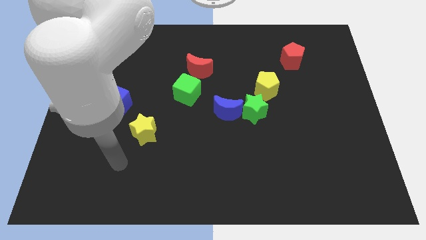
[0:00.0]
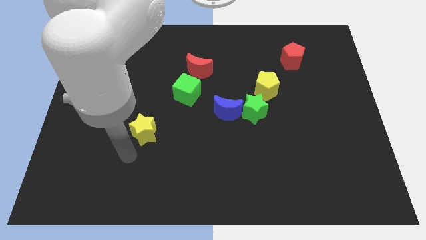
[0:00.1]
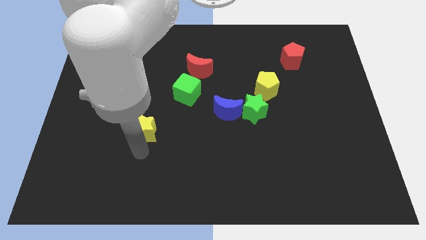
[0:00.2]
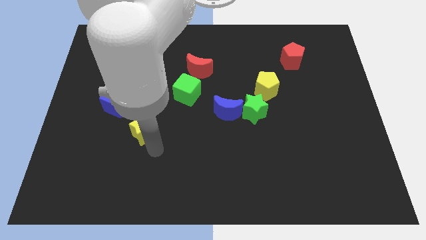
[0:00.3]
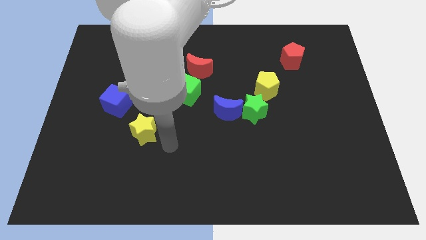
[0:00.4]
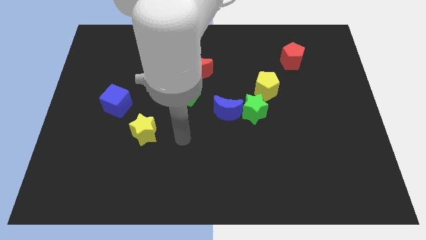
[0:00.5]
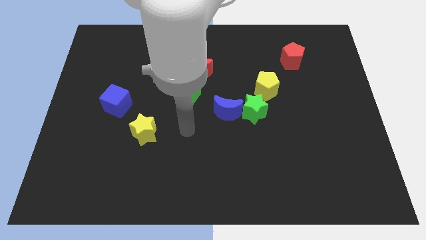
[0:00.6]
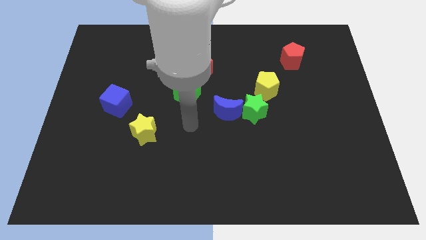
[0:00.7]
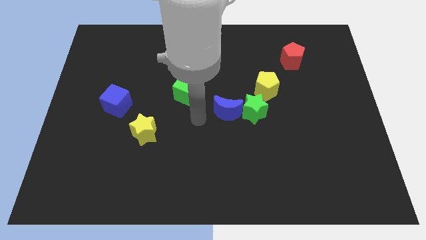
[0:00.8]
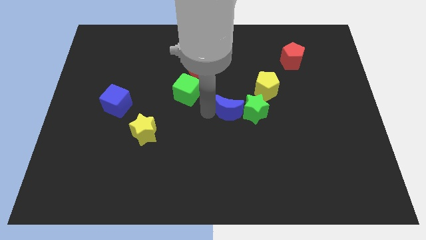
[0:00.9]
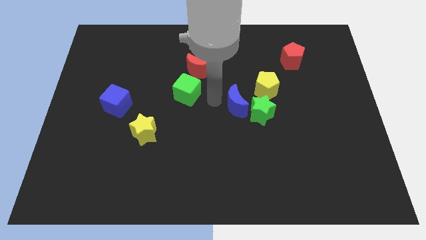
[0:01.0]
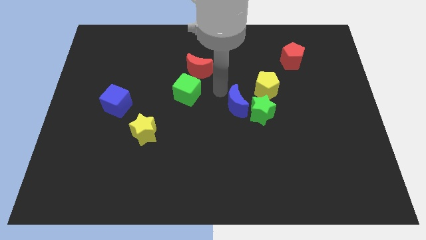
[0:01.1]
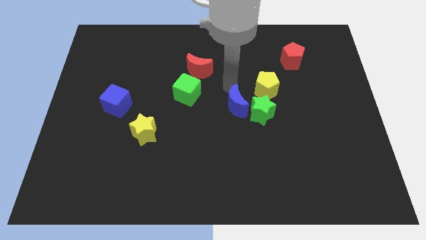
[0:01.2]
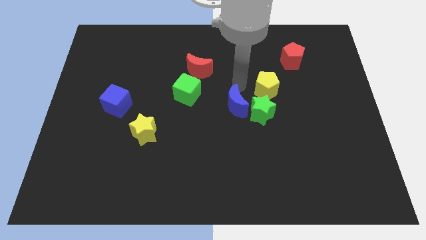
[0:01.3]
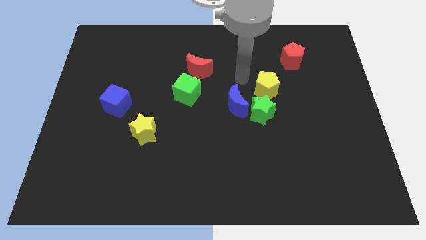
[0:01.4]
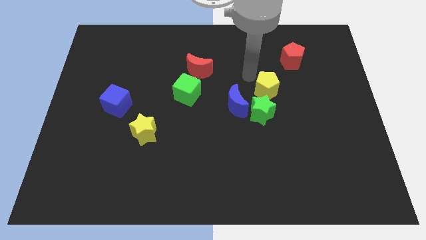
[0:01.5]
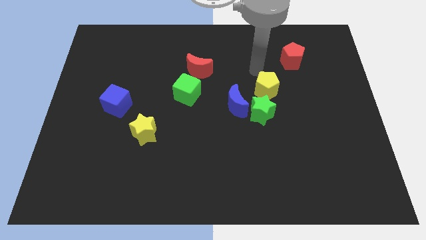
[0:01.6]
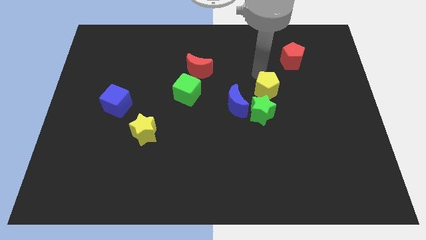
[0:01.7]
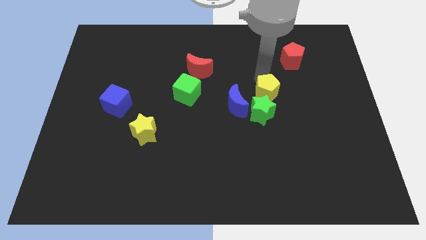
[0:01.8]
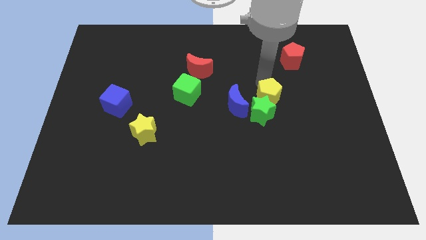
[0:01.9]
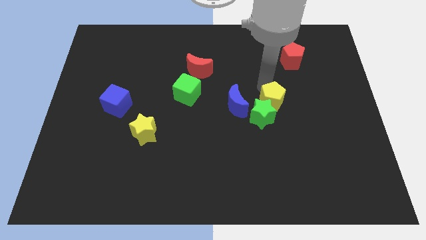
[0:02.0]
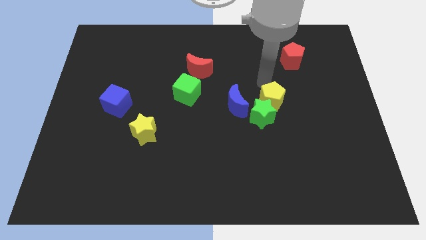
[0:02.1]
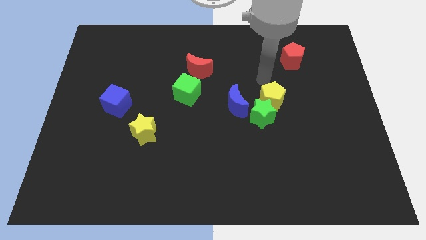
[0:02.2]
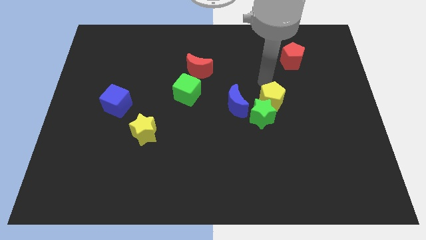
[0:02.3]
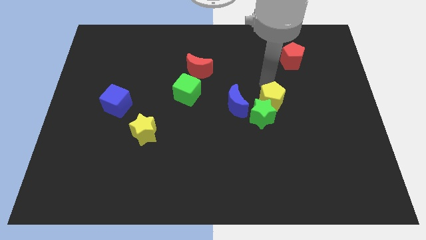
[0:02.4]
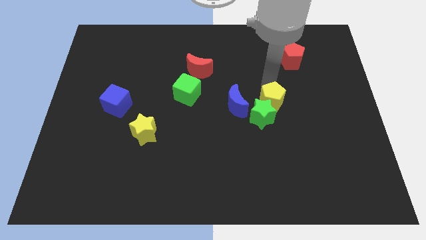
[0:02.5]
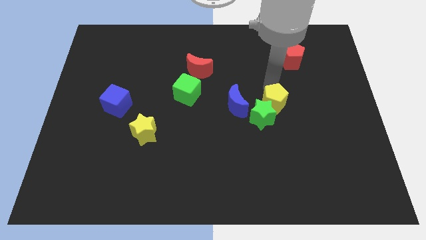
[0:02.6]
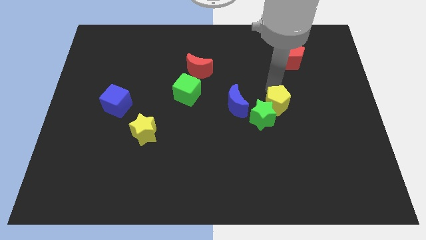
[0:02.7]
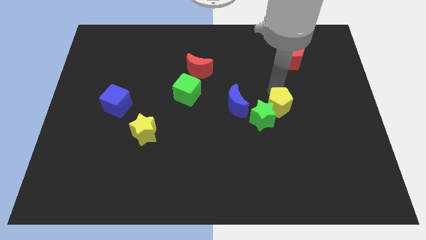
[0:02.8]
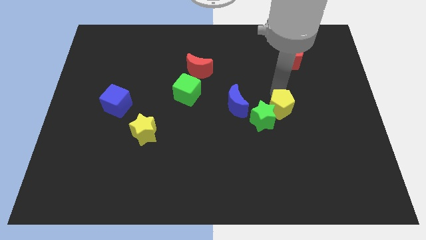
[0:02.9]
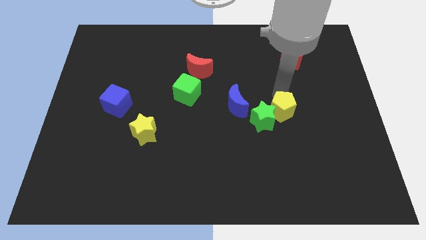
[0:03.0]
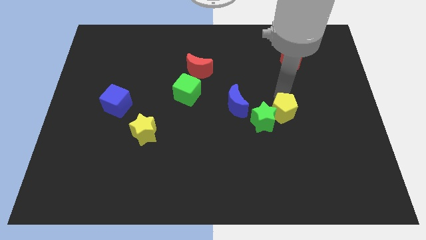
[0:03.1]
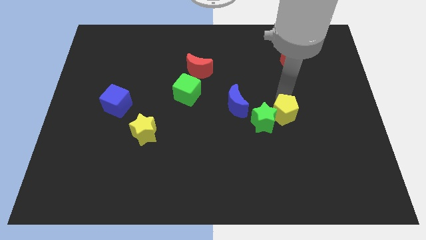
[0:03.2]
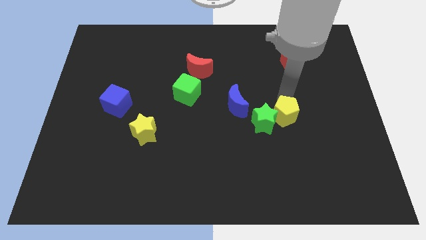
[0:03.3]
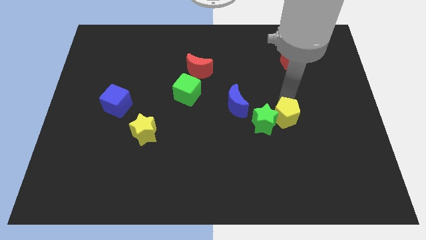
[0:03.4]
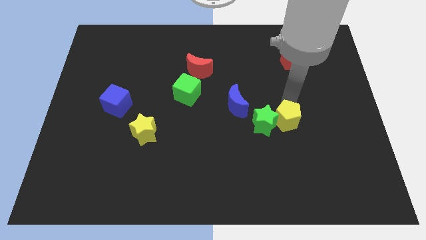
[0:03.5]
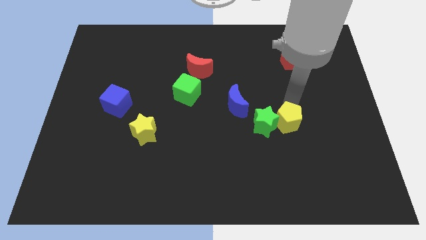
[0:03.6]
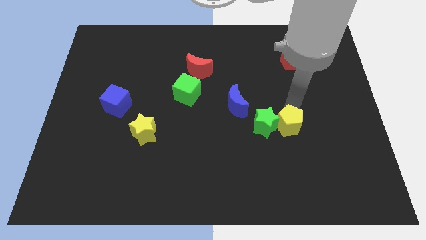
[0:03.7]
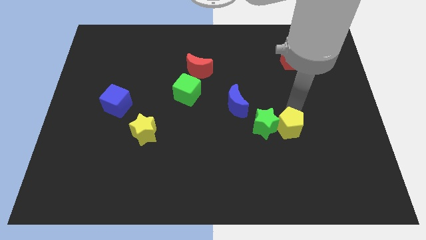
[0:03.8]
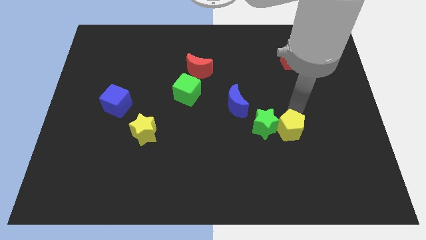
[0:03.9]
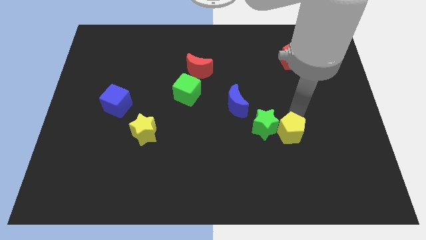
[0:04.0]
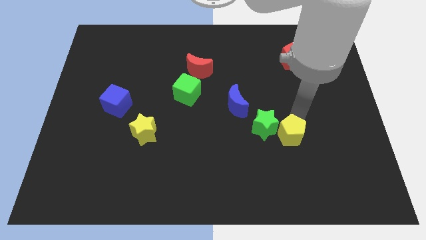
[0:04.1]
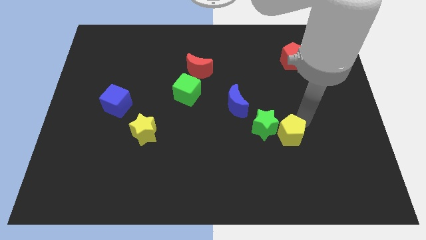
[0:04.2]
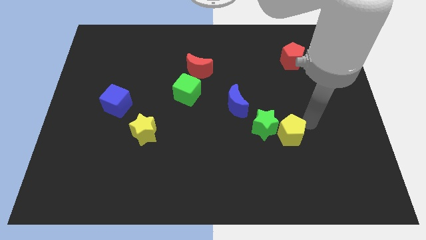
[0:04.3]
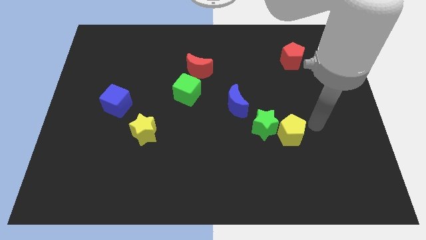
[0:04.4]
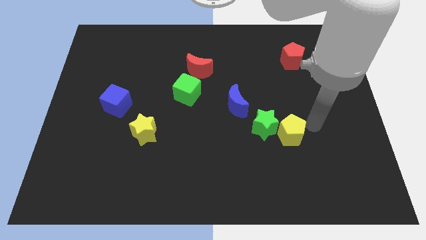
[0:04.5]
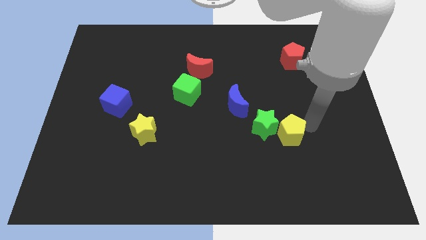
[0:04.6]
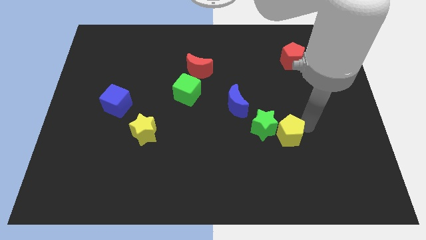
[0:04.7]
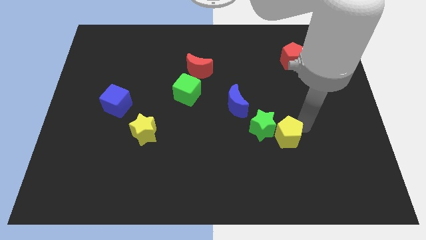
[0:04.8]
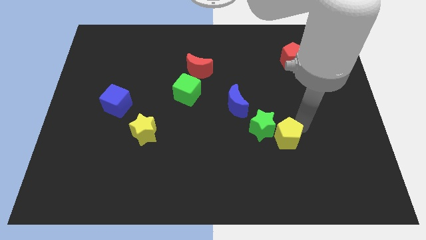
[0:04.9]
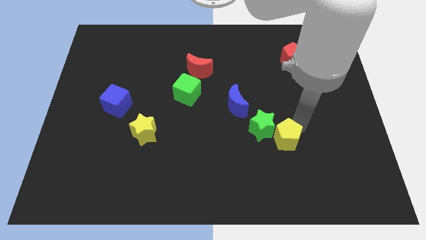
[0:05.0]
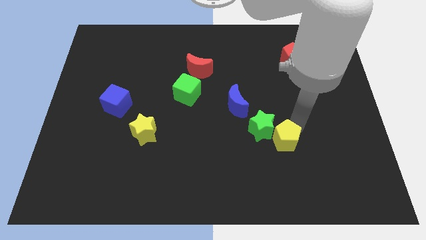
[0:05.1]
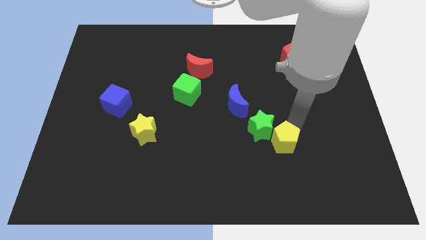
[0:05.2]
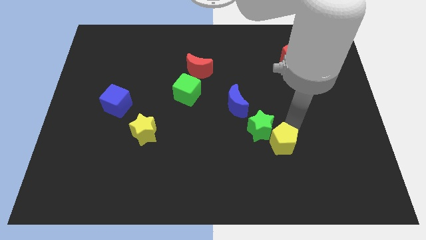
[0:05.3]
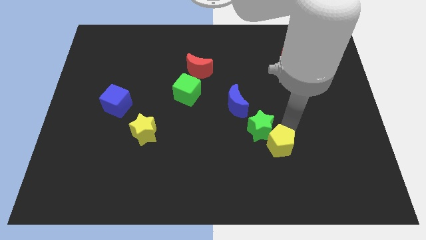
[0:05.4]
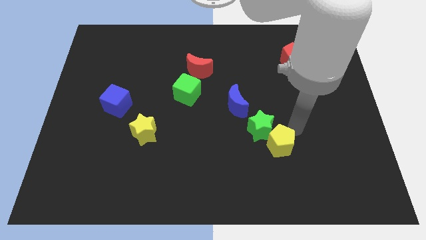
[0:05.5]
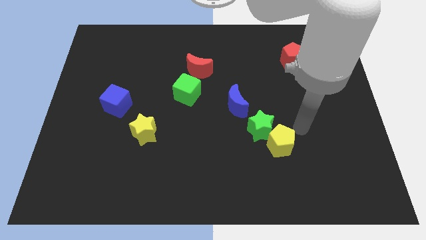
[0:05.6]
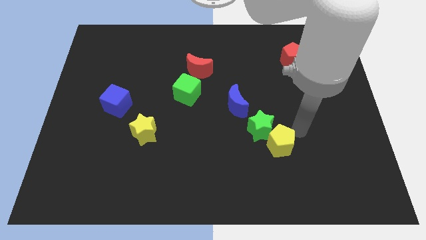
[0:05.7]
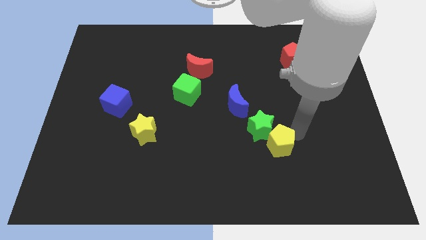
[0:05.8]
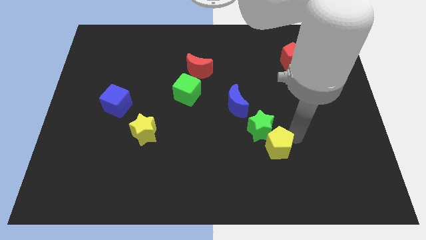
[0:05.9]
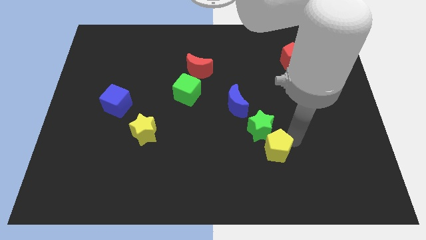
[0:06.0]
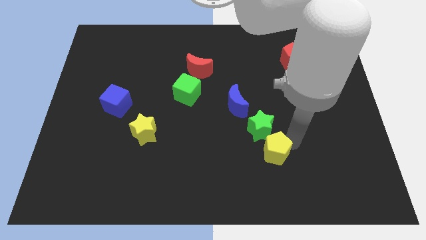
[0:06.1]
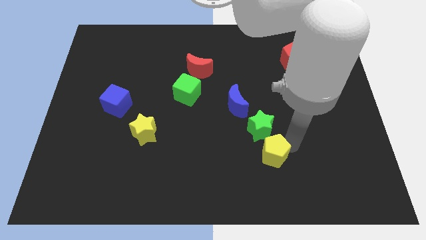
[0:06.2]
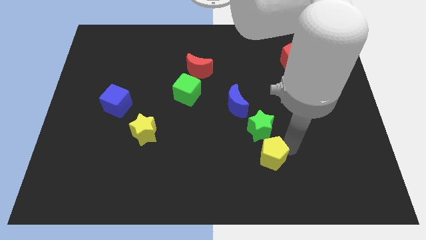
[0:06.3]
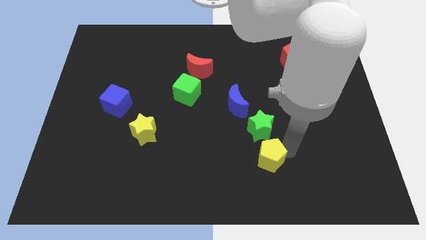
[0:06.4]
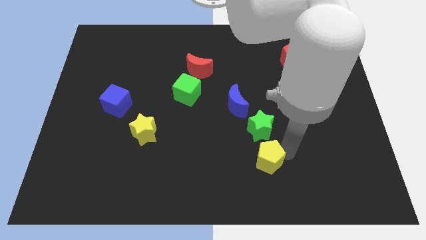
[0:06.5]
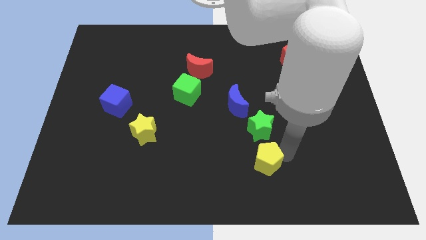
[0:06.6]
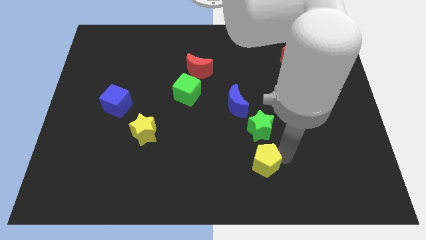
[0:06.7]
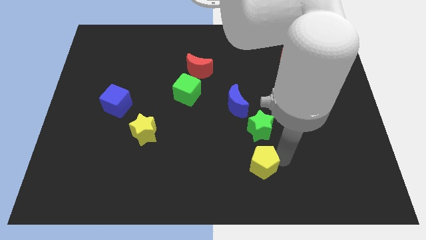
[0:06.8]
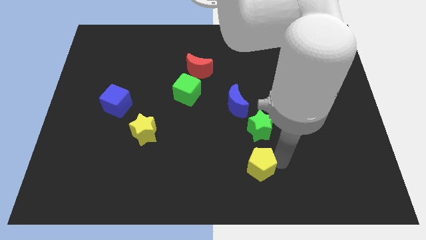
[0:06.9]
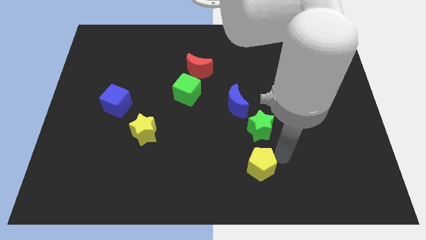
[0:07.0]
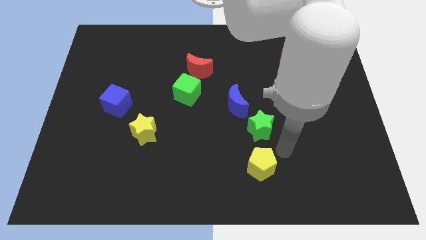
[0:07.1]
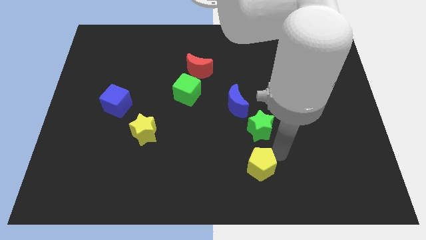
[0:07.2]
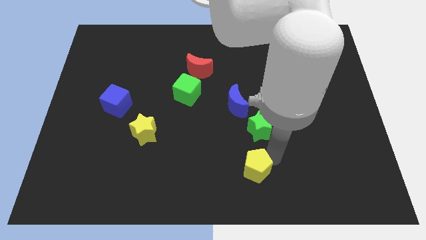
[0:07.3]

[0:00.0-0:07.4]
slide the yellow pentagon to the bottom side

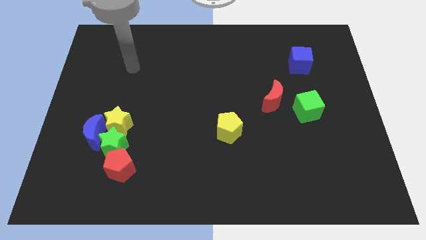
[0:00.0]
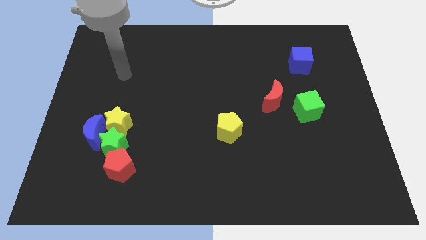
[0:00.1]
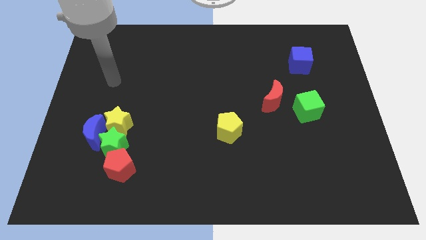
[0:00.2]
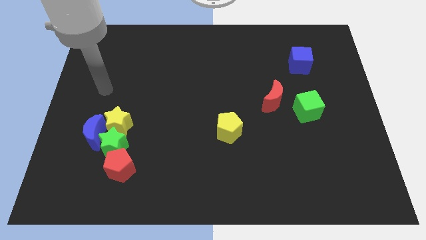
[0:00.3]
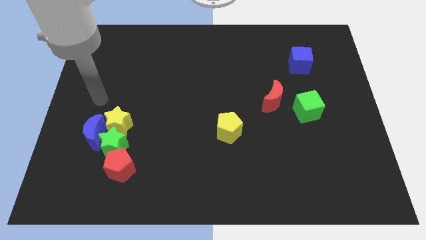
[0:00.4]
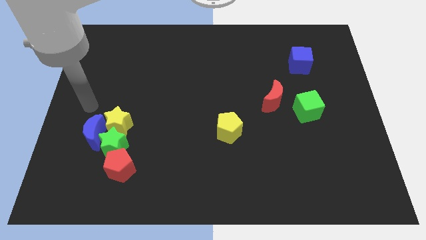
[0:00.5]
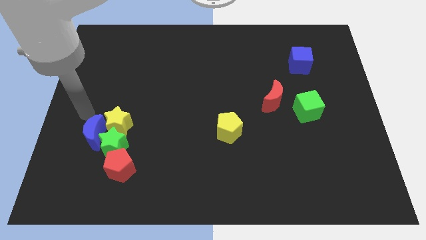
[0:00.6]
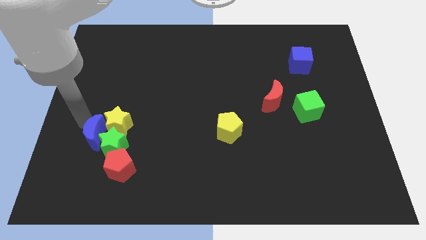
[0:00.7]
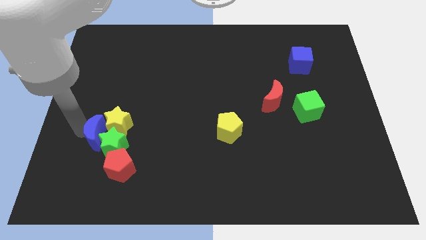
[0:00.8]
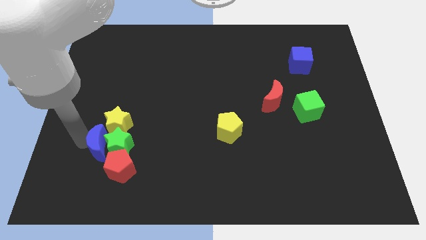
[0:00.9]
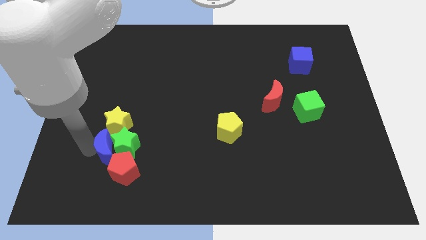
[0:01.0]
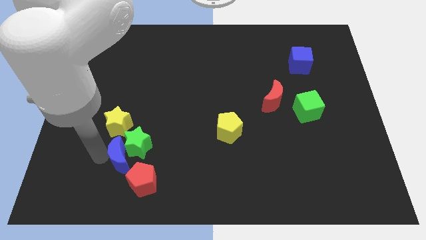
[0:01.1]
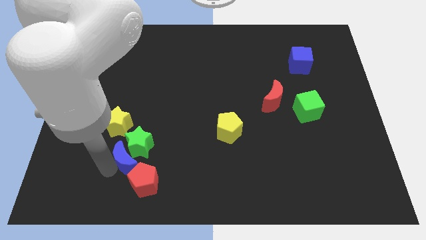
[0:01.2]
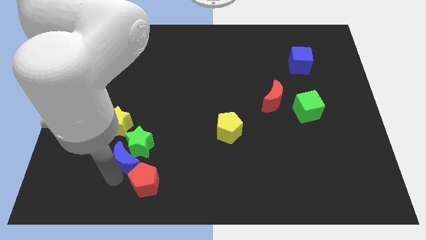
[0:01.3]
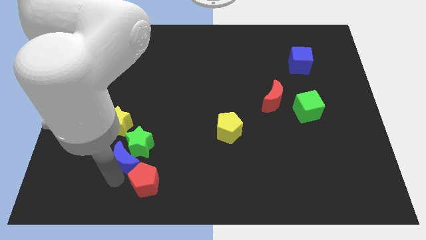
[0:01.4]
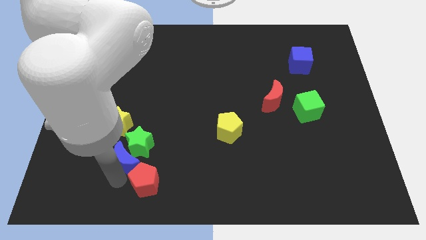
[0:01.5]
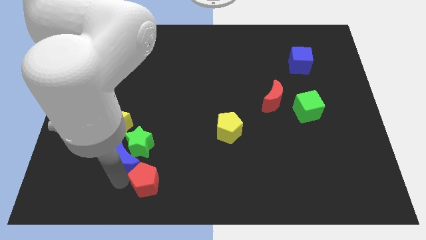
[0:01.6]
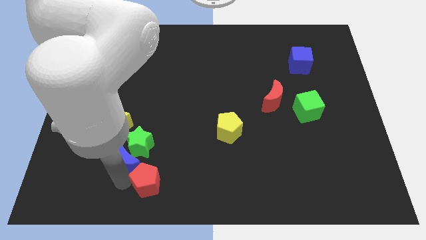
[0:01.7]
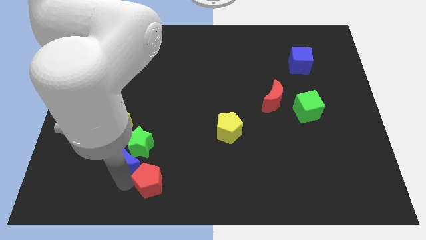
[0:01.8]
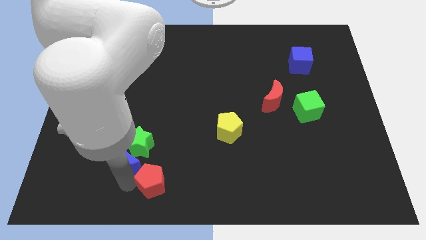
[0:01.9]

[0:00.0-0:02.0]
put the red pentagon to the bottom side
